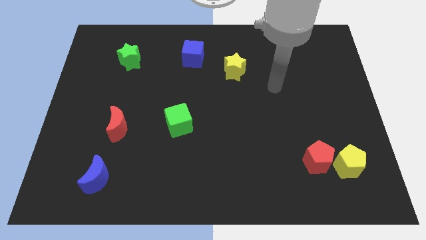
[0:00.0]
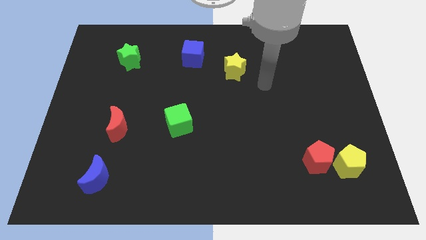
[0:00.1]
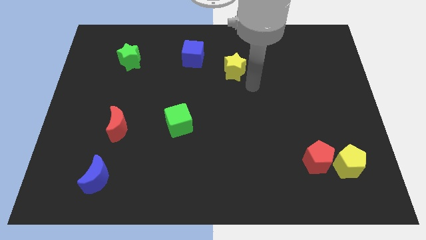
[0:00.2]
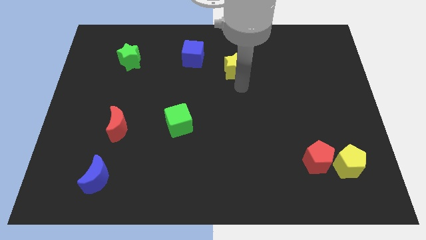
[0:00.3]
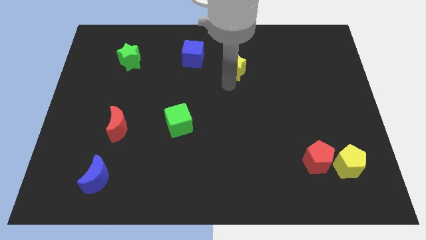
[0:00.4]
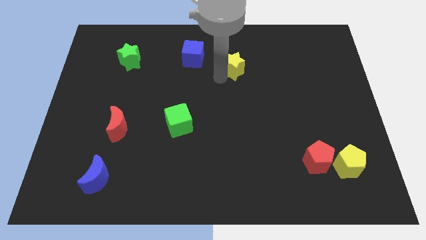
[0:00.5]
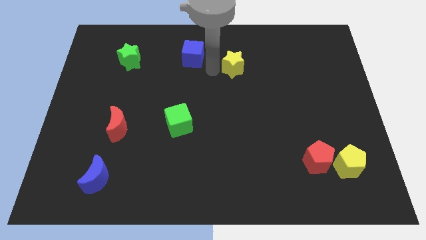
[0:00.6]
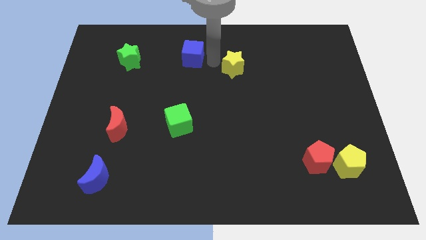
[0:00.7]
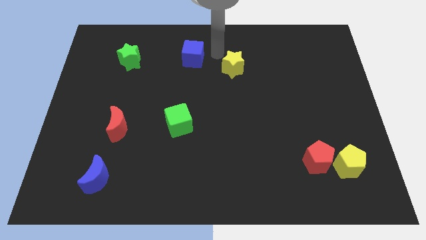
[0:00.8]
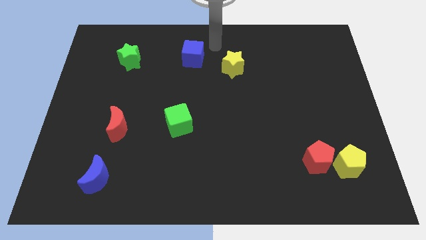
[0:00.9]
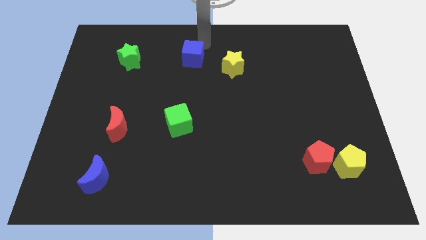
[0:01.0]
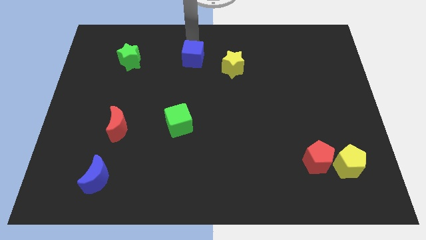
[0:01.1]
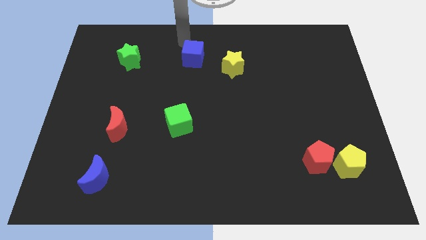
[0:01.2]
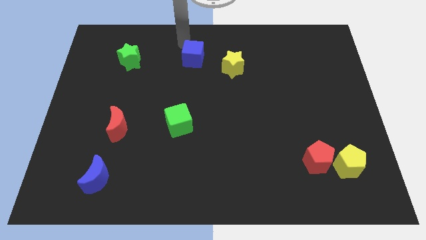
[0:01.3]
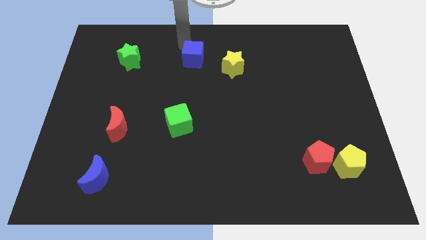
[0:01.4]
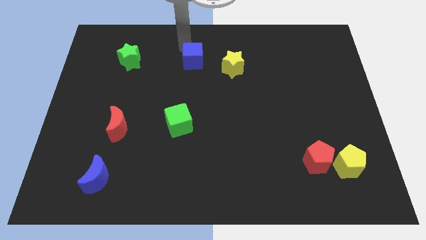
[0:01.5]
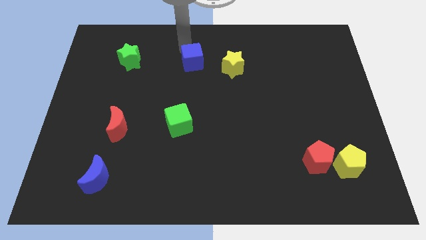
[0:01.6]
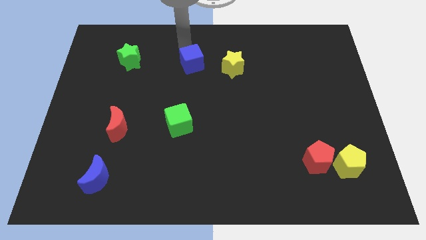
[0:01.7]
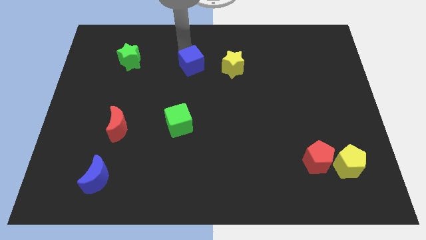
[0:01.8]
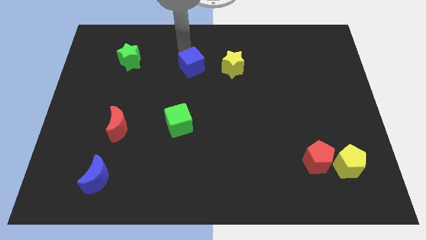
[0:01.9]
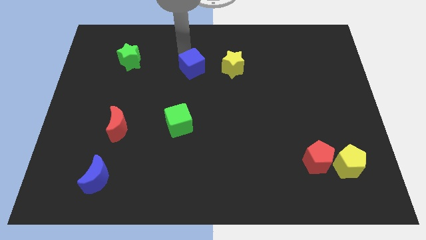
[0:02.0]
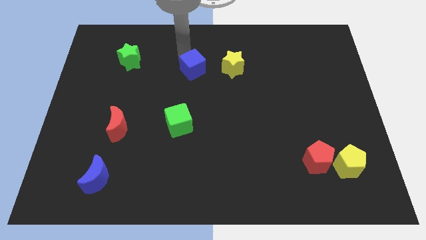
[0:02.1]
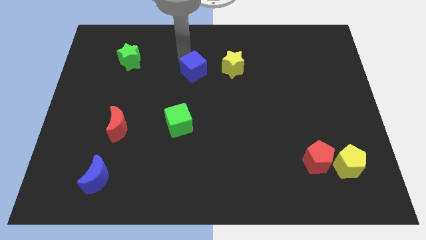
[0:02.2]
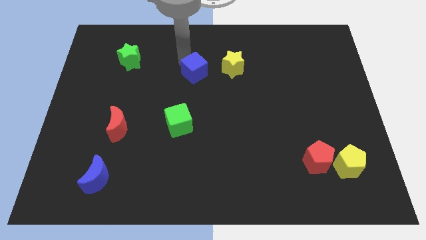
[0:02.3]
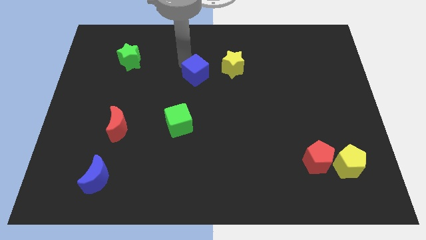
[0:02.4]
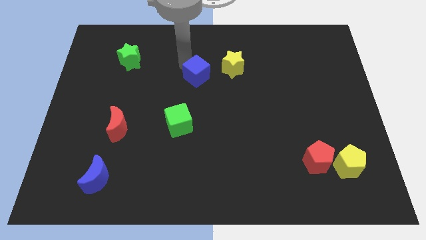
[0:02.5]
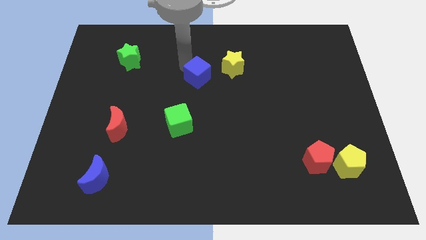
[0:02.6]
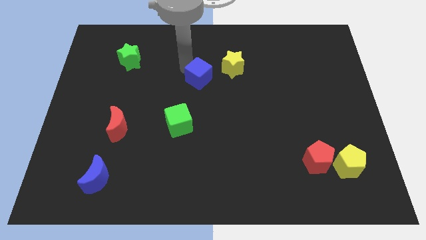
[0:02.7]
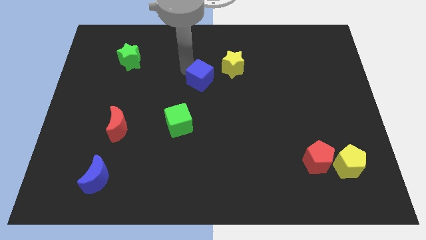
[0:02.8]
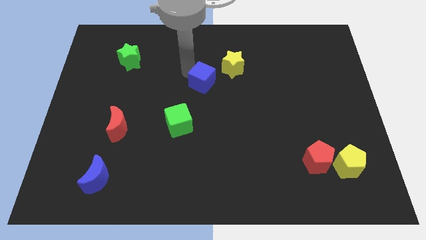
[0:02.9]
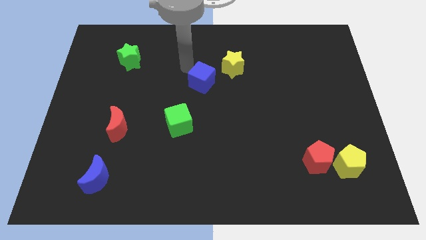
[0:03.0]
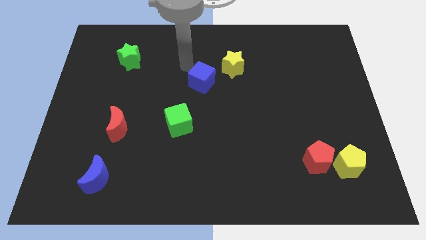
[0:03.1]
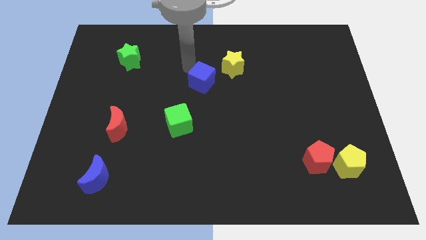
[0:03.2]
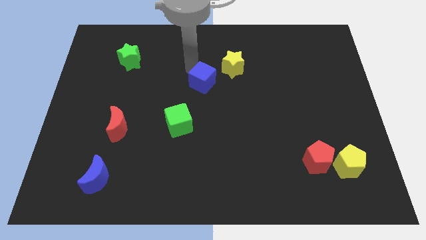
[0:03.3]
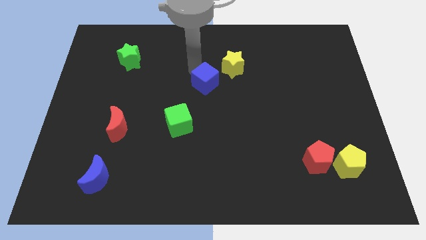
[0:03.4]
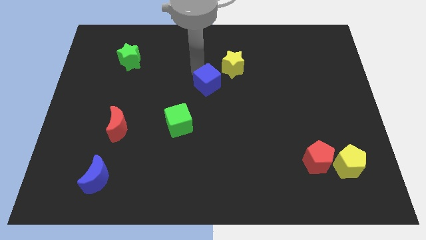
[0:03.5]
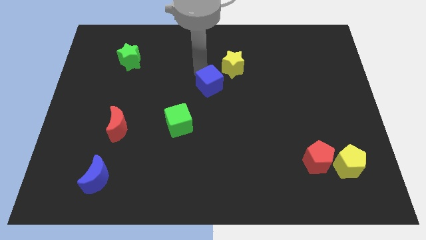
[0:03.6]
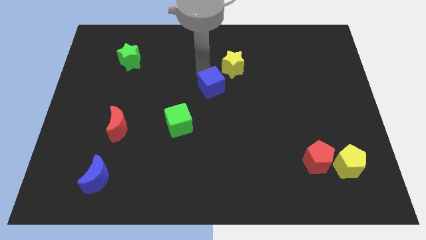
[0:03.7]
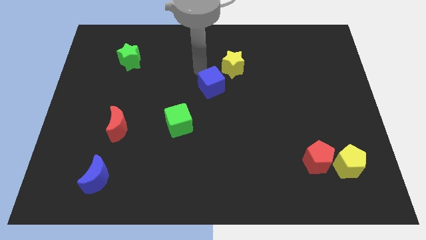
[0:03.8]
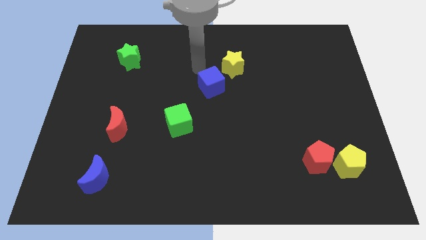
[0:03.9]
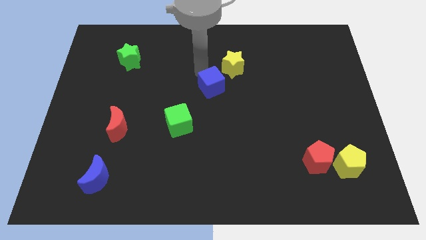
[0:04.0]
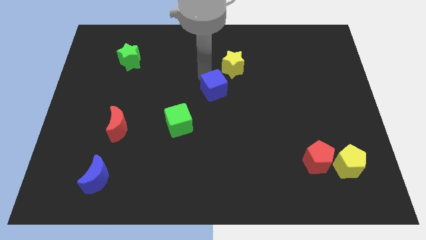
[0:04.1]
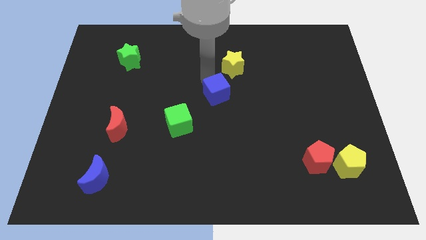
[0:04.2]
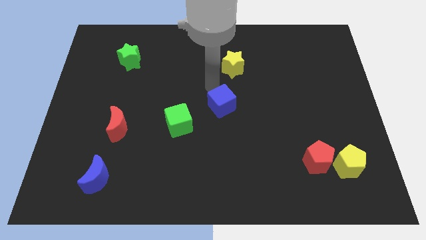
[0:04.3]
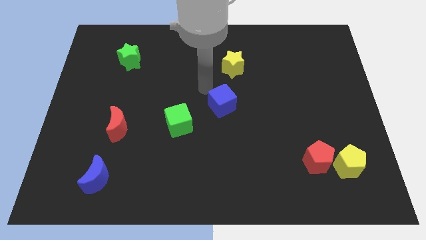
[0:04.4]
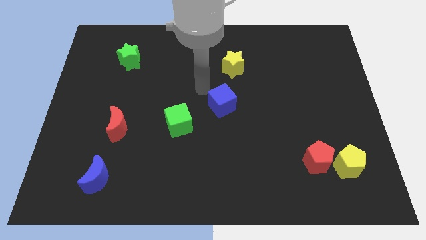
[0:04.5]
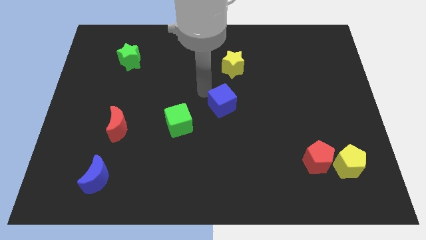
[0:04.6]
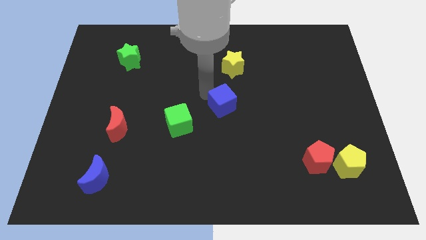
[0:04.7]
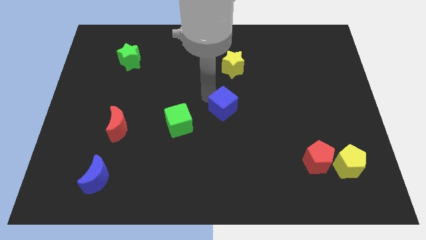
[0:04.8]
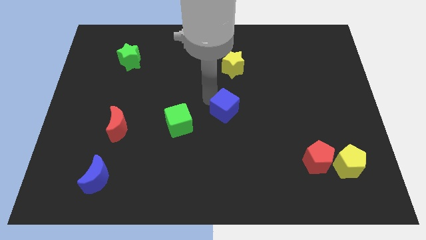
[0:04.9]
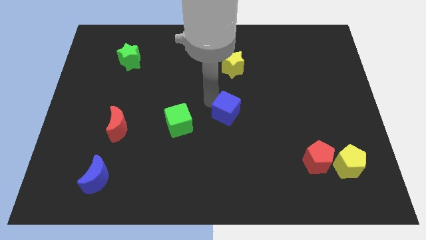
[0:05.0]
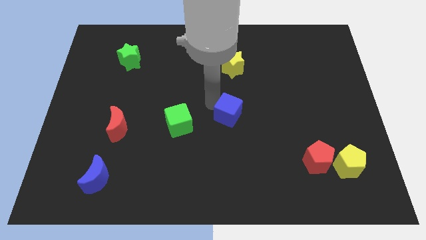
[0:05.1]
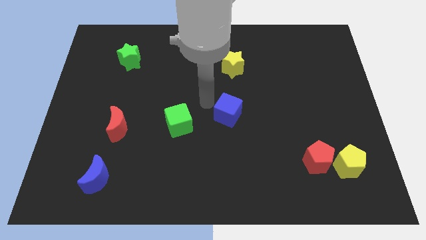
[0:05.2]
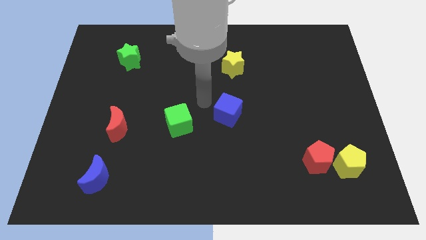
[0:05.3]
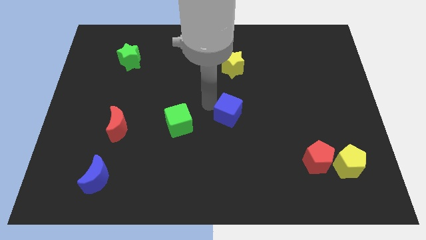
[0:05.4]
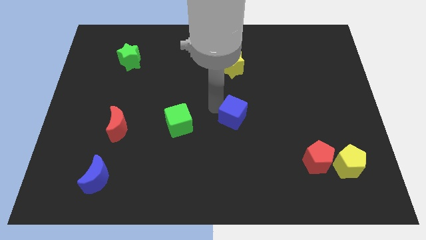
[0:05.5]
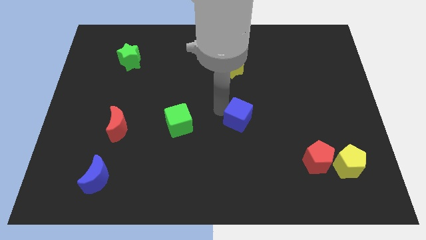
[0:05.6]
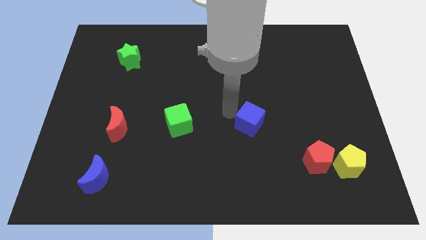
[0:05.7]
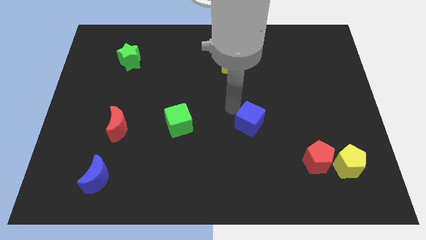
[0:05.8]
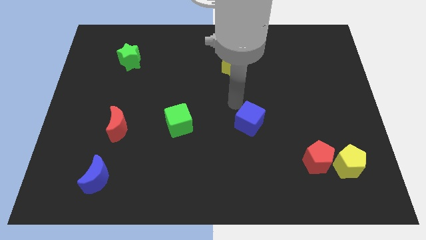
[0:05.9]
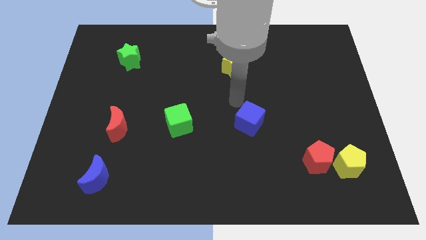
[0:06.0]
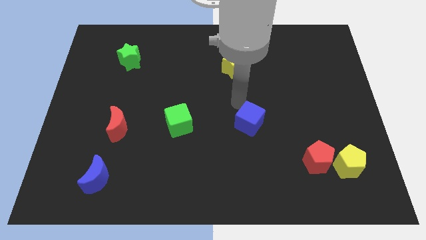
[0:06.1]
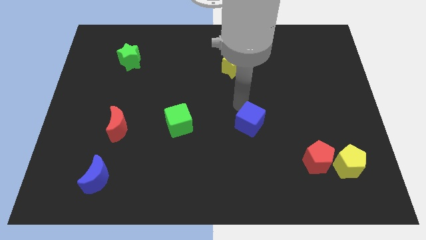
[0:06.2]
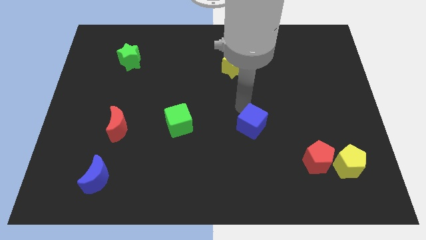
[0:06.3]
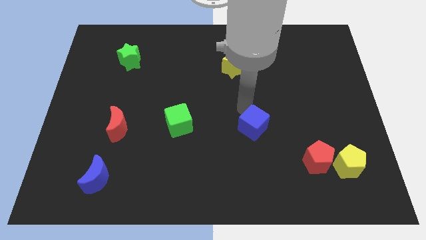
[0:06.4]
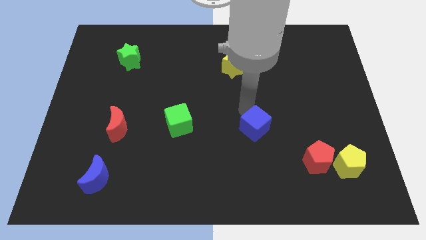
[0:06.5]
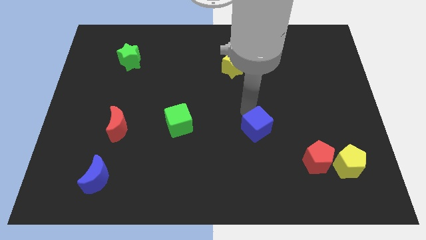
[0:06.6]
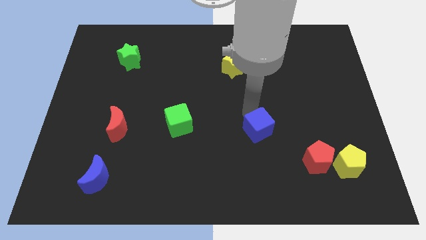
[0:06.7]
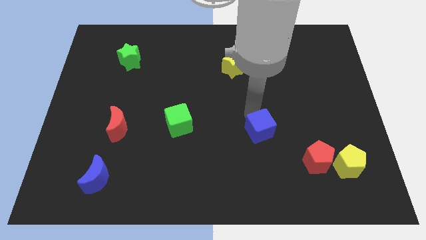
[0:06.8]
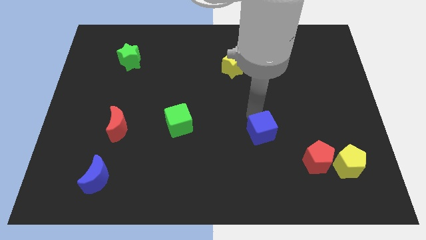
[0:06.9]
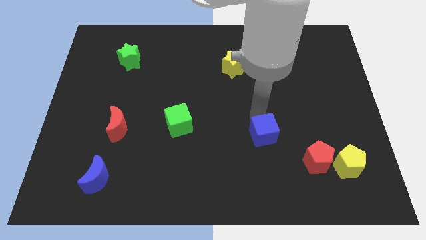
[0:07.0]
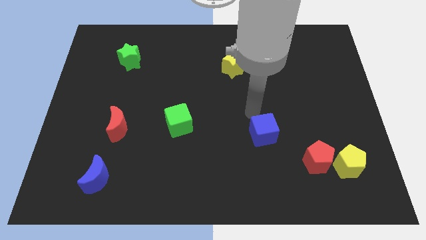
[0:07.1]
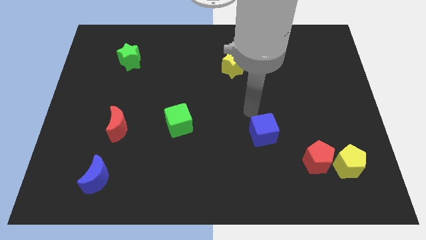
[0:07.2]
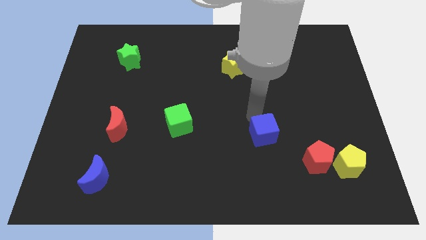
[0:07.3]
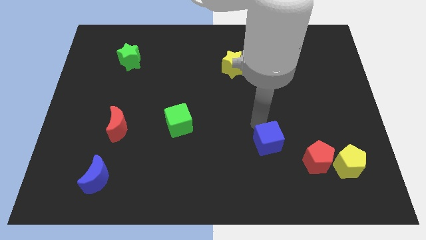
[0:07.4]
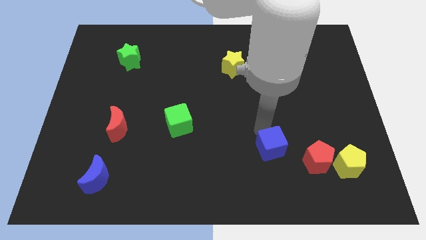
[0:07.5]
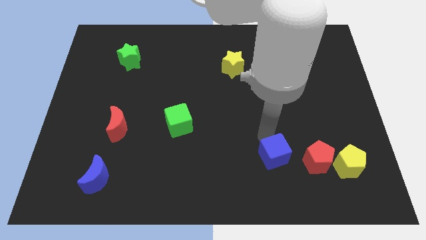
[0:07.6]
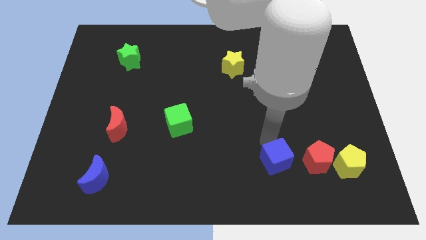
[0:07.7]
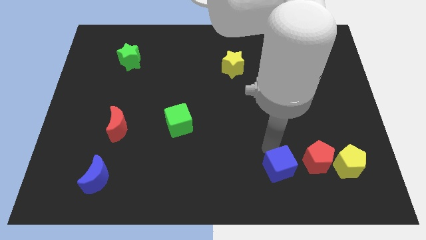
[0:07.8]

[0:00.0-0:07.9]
put the blue cube to the bottom left of the red pentagon
